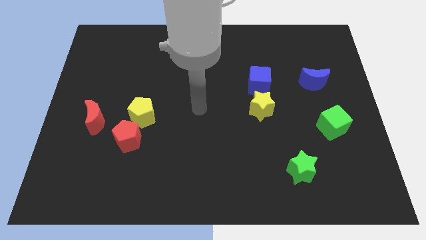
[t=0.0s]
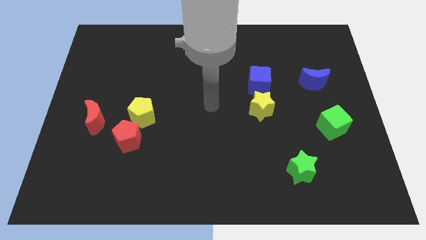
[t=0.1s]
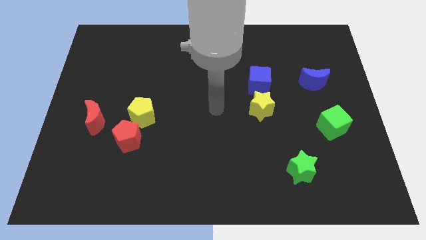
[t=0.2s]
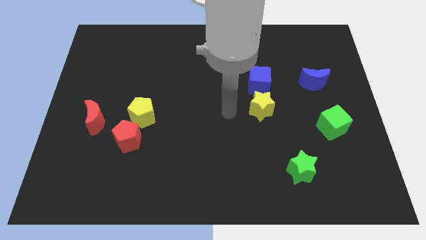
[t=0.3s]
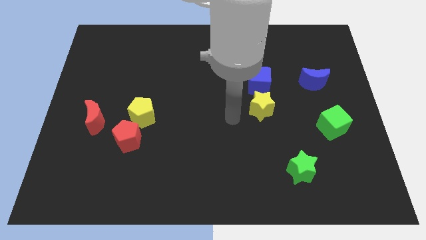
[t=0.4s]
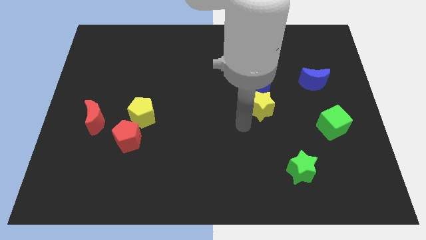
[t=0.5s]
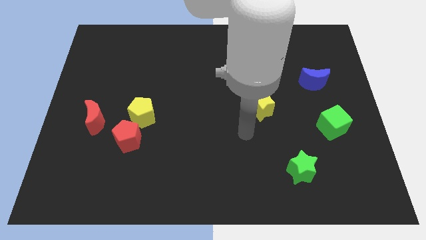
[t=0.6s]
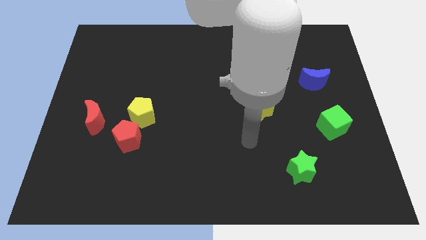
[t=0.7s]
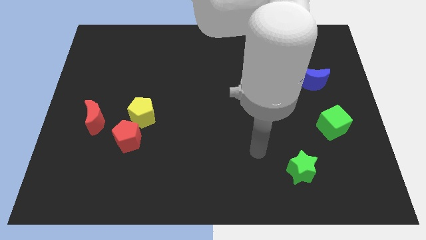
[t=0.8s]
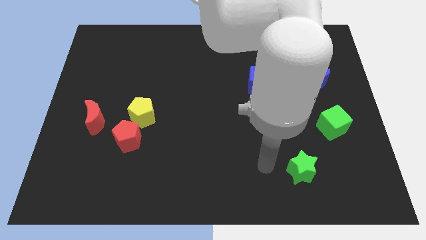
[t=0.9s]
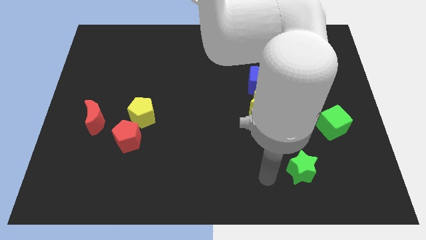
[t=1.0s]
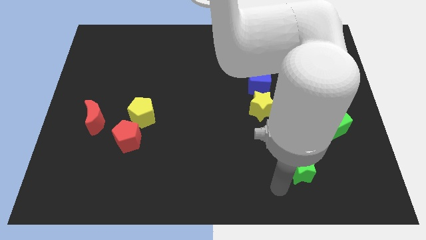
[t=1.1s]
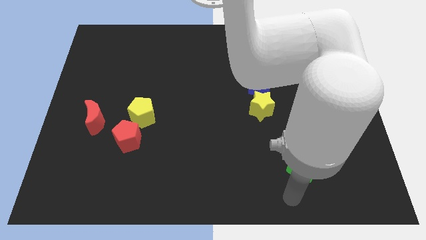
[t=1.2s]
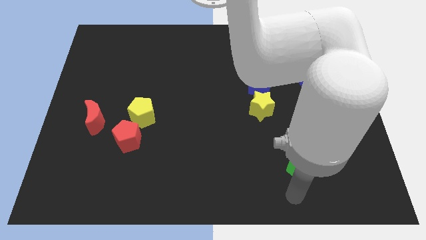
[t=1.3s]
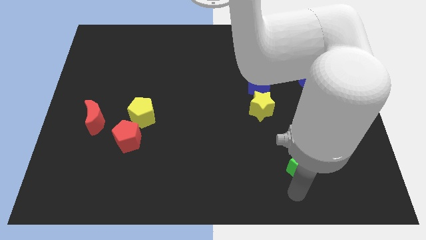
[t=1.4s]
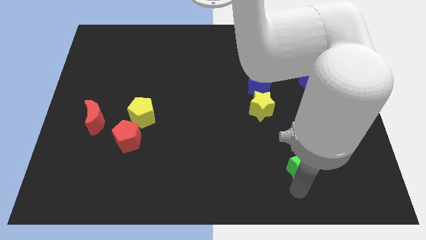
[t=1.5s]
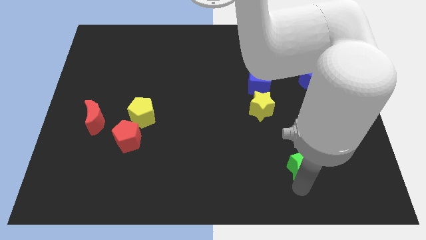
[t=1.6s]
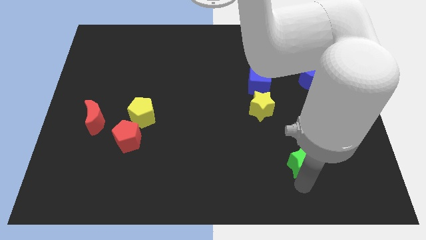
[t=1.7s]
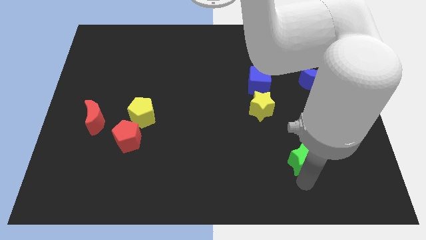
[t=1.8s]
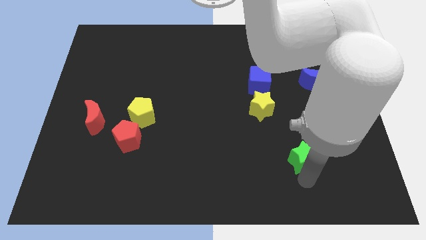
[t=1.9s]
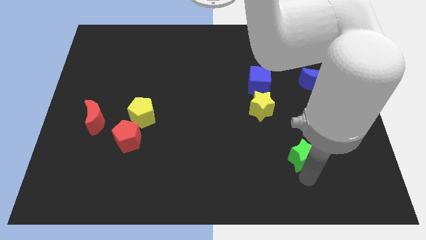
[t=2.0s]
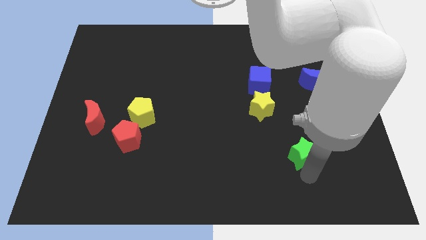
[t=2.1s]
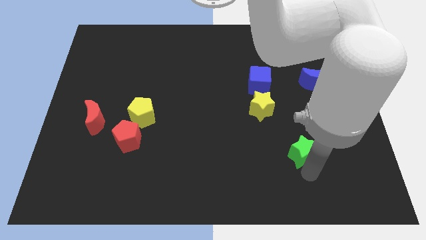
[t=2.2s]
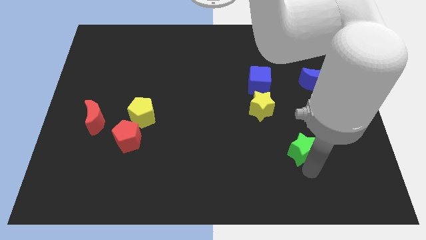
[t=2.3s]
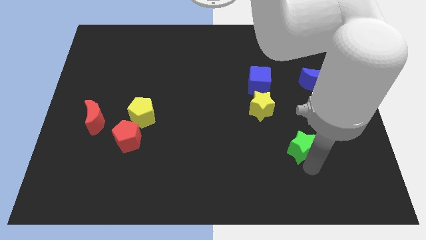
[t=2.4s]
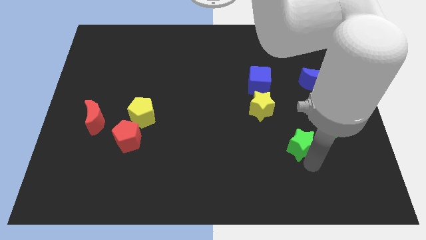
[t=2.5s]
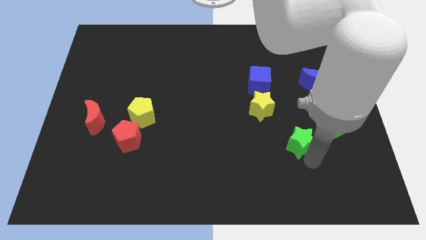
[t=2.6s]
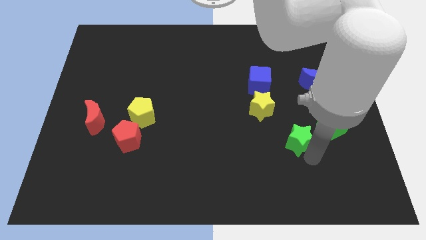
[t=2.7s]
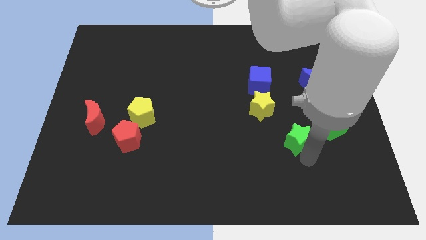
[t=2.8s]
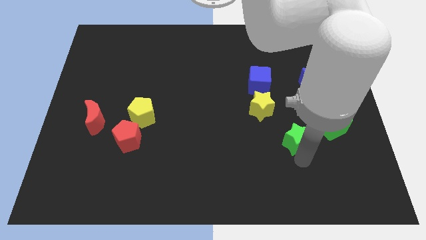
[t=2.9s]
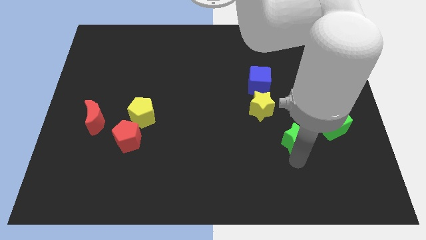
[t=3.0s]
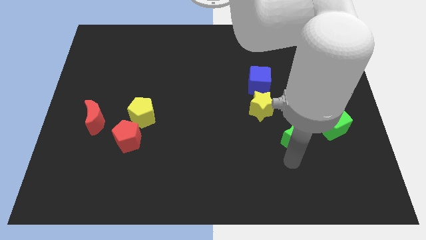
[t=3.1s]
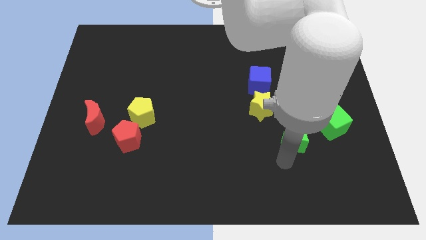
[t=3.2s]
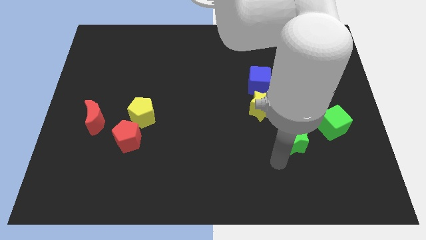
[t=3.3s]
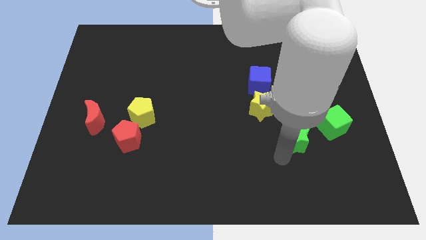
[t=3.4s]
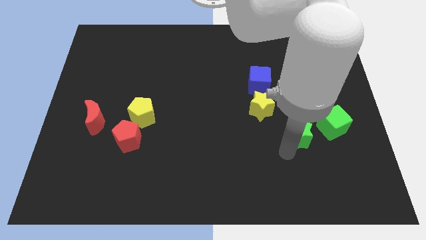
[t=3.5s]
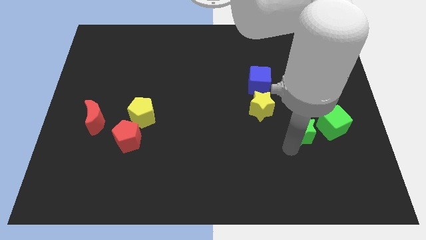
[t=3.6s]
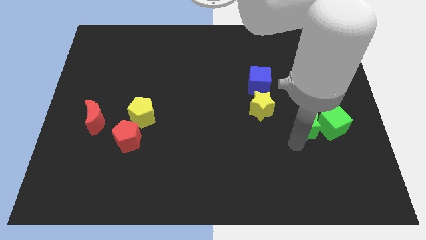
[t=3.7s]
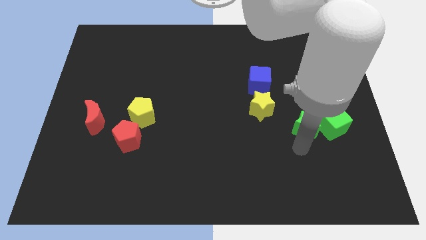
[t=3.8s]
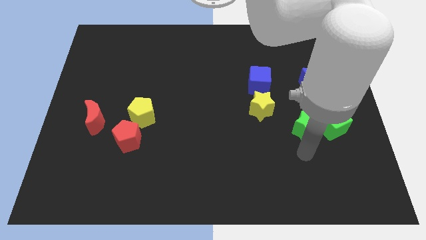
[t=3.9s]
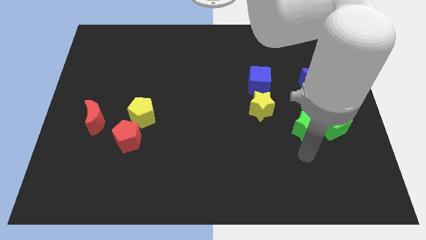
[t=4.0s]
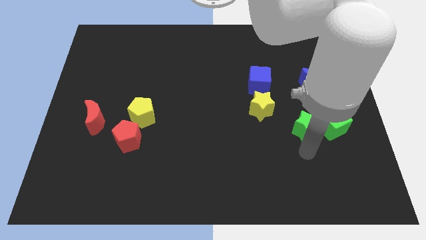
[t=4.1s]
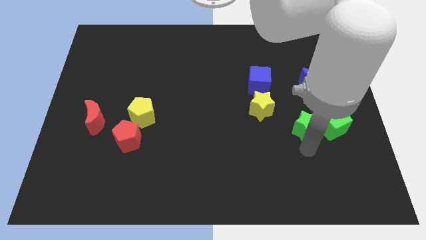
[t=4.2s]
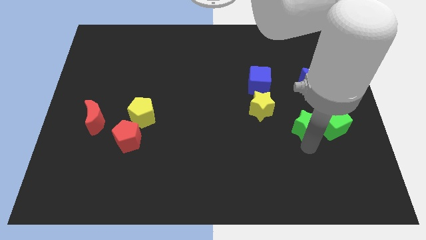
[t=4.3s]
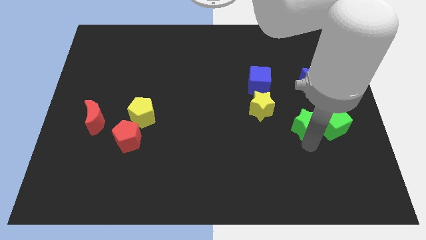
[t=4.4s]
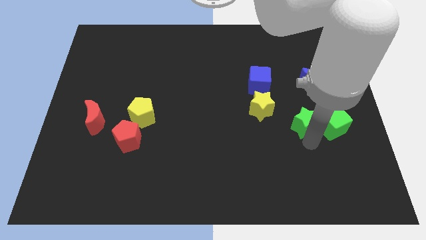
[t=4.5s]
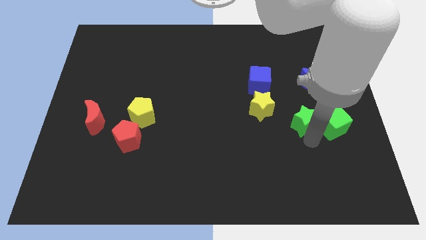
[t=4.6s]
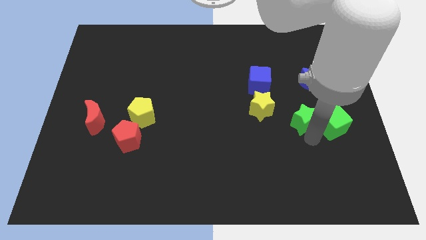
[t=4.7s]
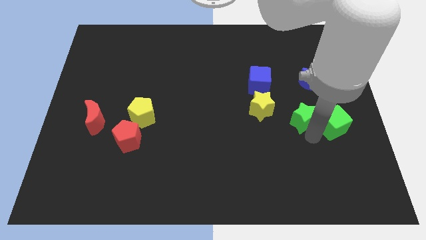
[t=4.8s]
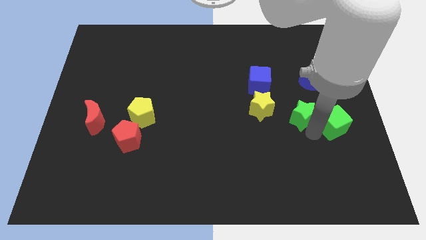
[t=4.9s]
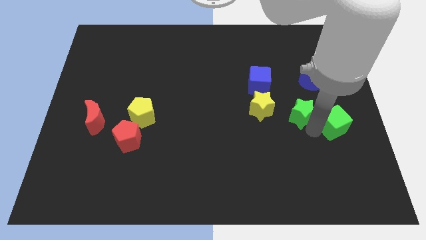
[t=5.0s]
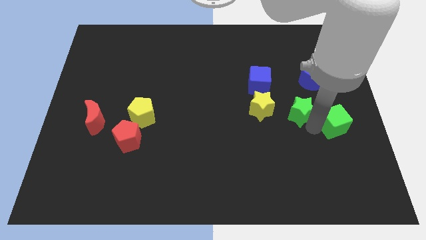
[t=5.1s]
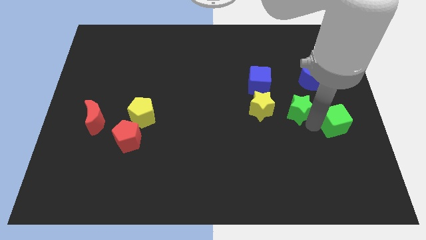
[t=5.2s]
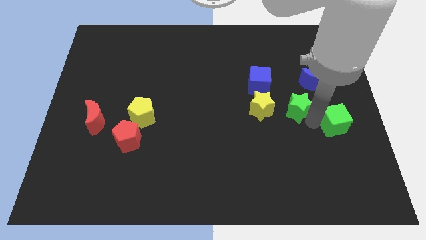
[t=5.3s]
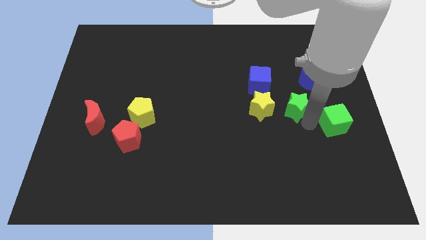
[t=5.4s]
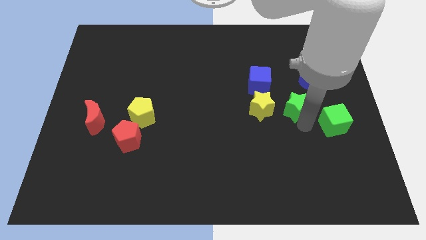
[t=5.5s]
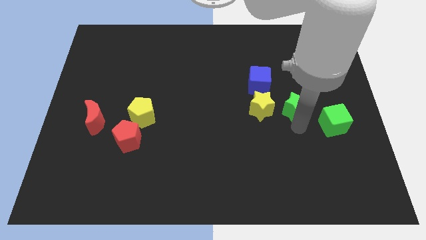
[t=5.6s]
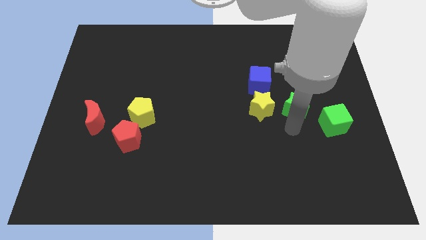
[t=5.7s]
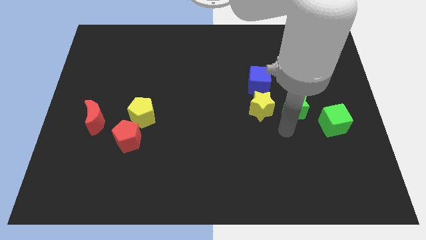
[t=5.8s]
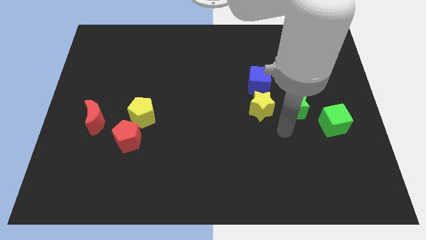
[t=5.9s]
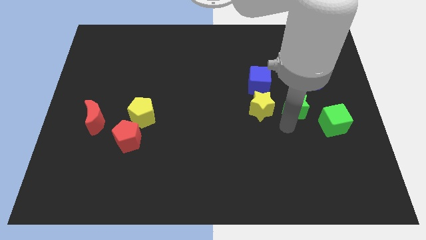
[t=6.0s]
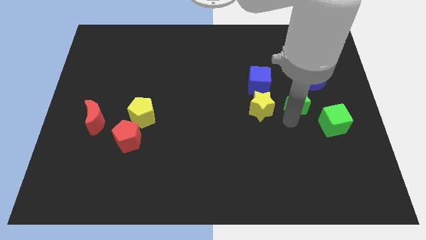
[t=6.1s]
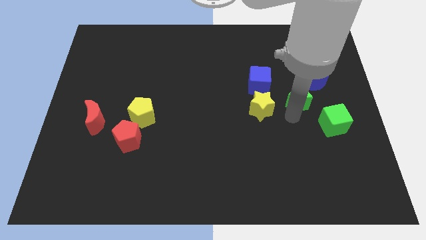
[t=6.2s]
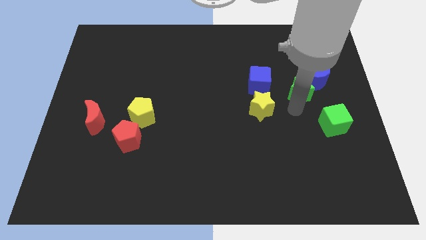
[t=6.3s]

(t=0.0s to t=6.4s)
push the green star next to the blue moon
